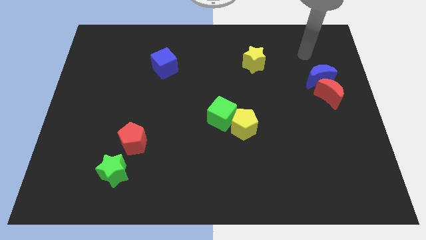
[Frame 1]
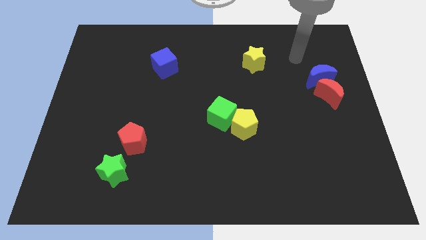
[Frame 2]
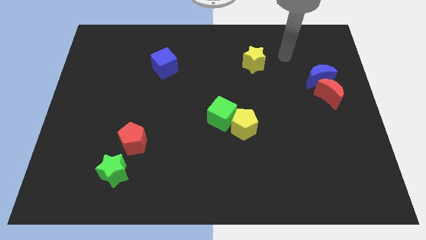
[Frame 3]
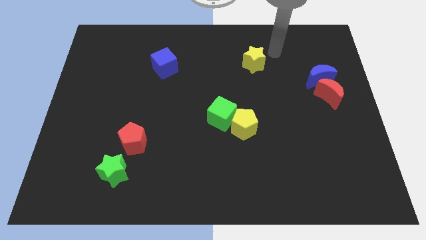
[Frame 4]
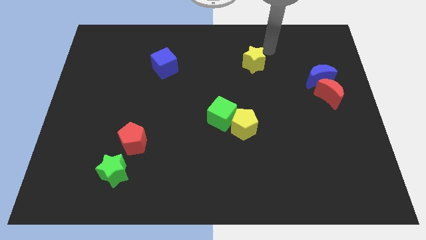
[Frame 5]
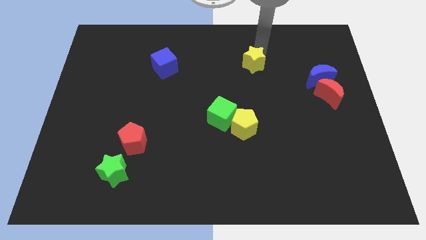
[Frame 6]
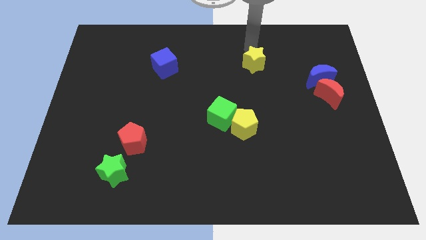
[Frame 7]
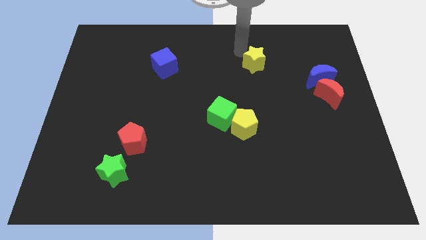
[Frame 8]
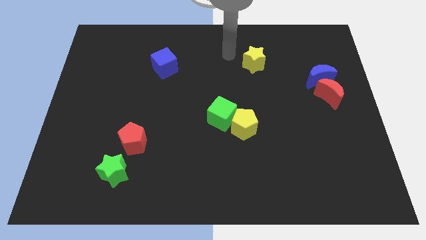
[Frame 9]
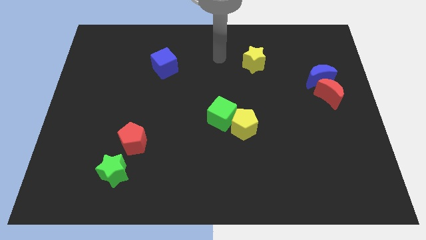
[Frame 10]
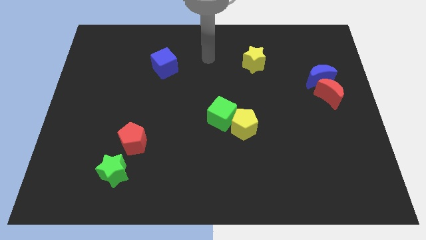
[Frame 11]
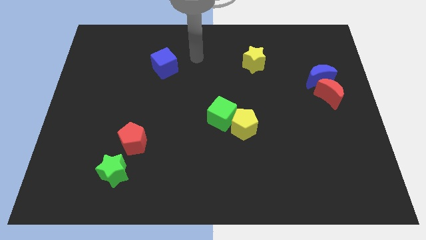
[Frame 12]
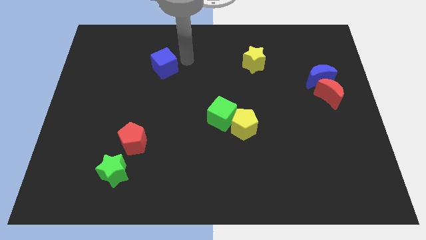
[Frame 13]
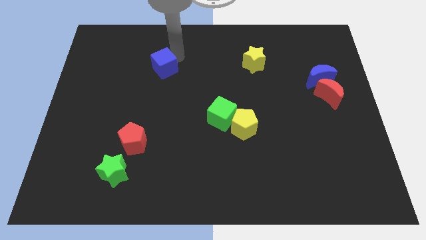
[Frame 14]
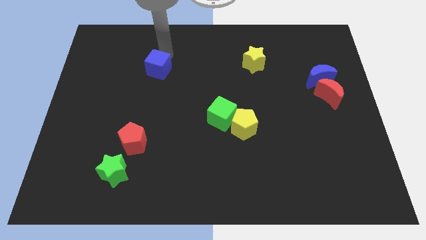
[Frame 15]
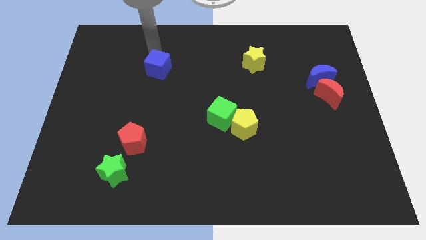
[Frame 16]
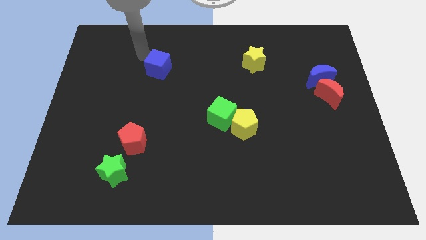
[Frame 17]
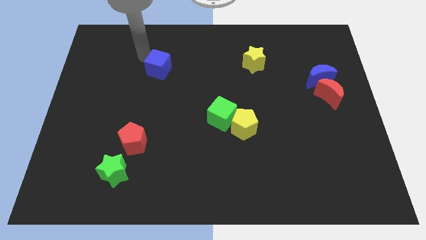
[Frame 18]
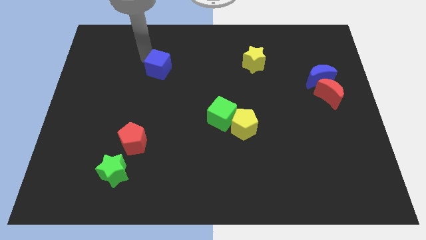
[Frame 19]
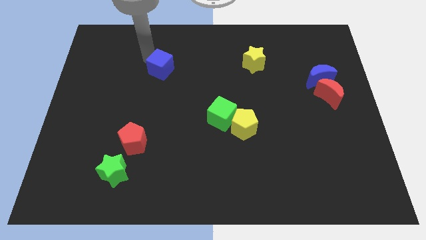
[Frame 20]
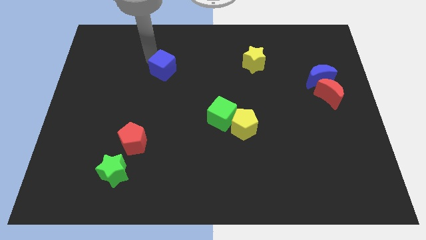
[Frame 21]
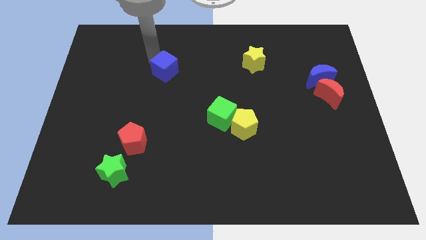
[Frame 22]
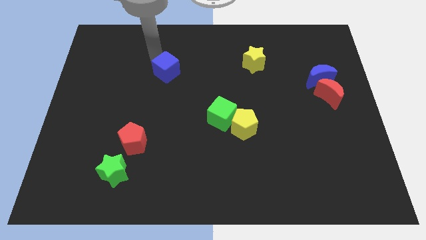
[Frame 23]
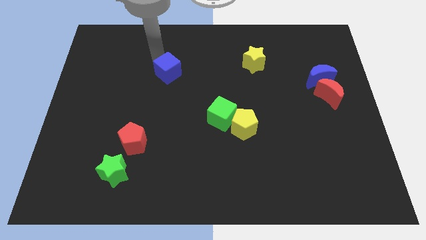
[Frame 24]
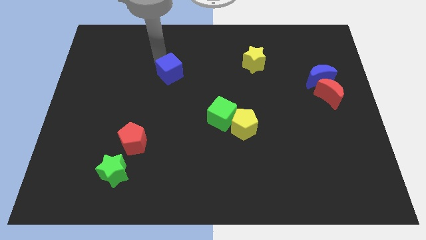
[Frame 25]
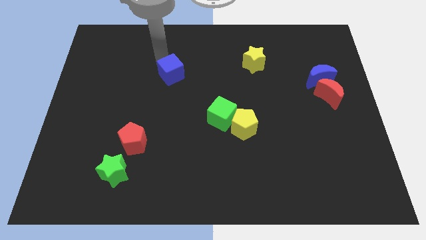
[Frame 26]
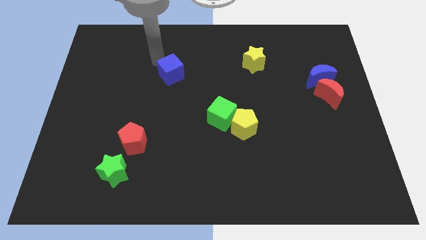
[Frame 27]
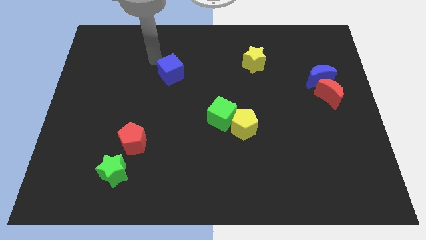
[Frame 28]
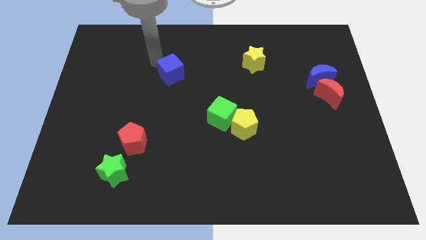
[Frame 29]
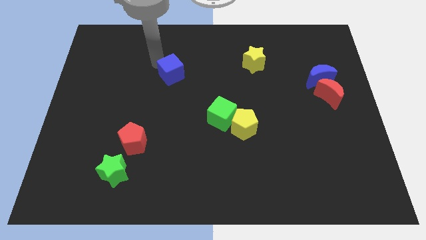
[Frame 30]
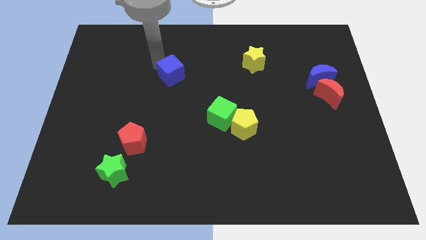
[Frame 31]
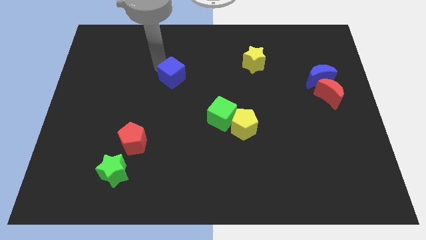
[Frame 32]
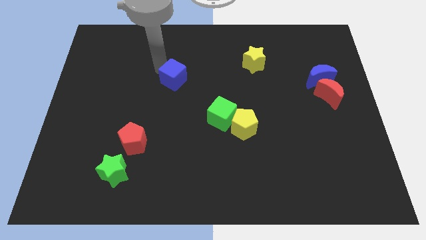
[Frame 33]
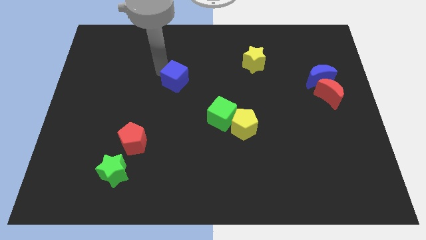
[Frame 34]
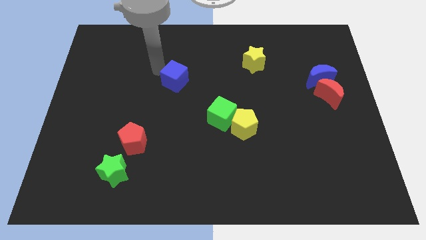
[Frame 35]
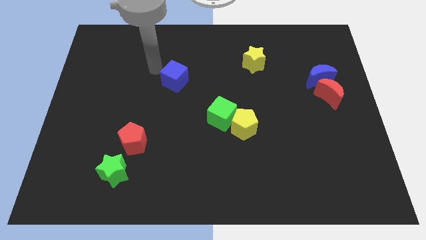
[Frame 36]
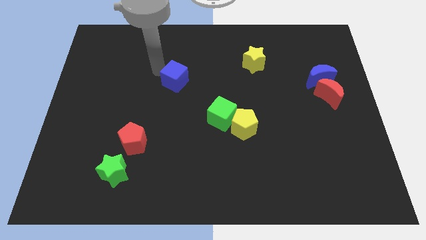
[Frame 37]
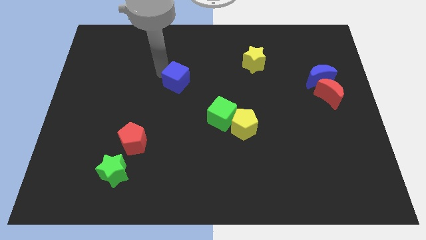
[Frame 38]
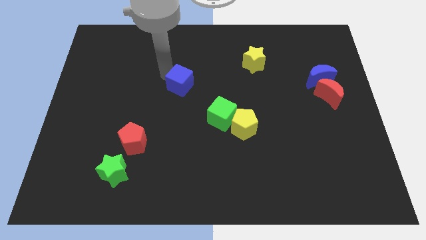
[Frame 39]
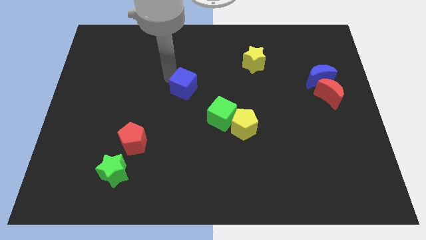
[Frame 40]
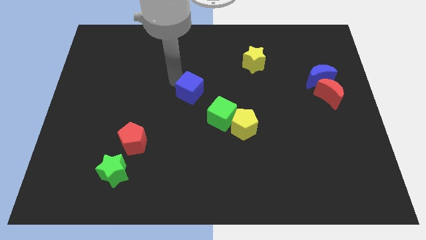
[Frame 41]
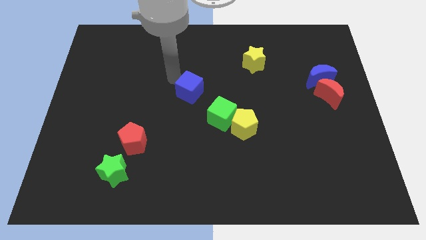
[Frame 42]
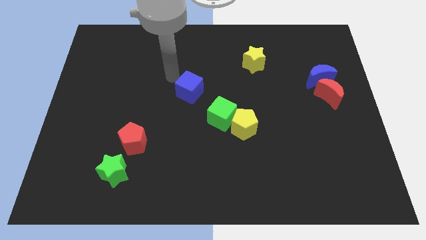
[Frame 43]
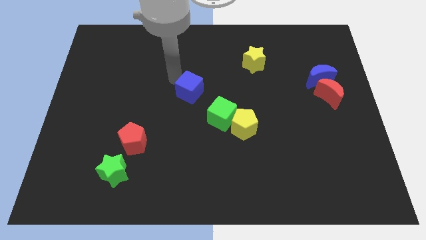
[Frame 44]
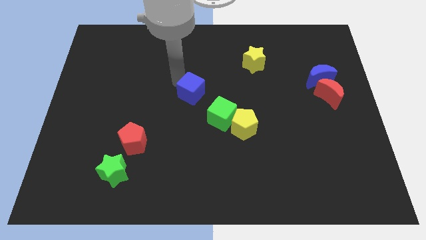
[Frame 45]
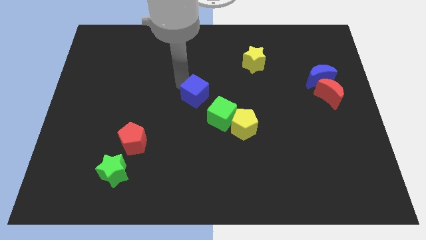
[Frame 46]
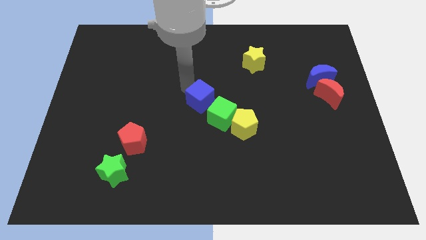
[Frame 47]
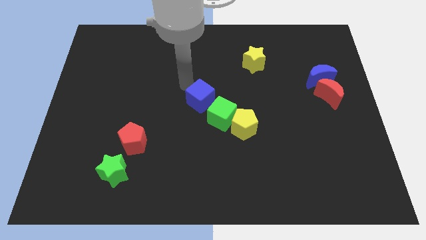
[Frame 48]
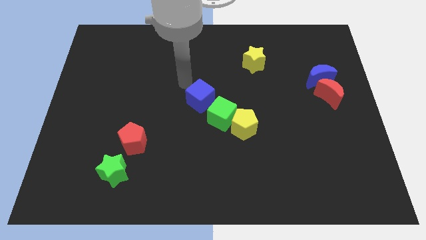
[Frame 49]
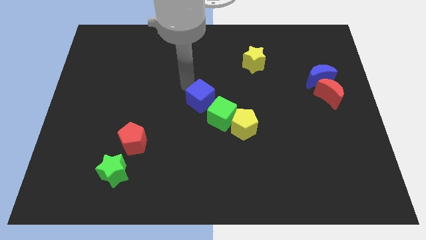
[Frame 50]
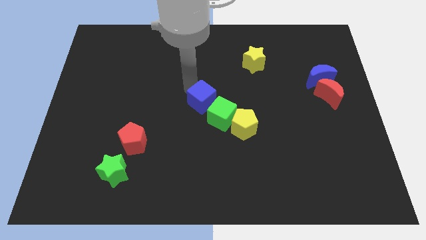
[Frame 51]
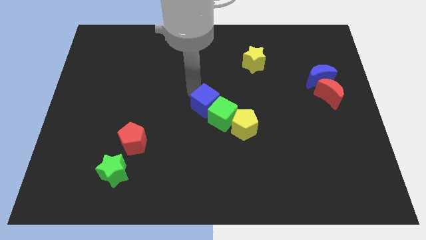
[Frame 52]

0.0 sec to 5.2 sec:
put the blue cube towards the green cube

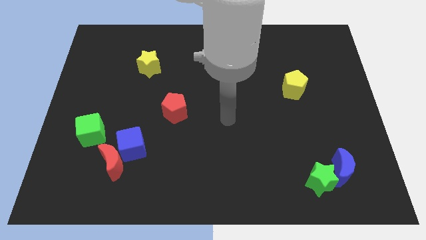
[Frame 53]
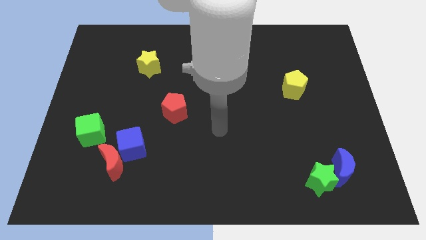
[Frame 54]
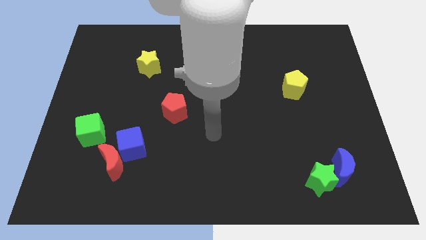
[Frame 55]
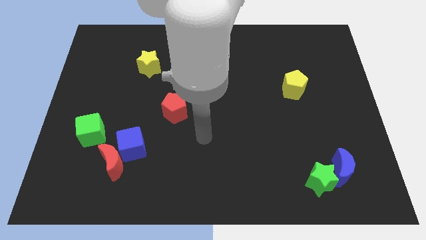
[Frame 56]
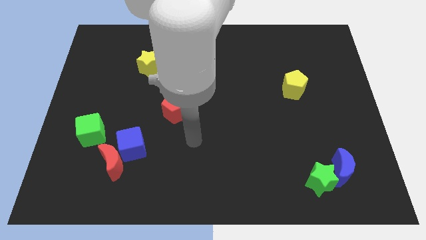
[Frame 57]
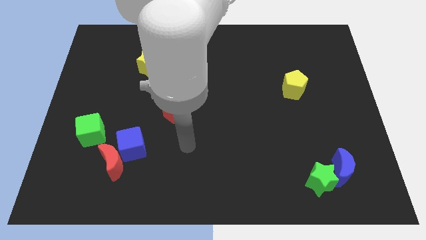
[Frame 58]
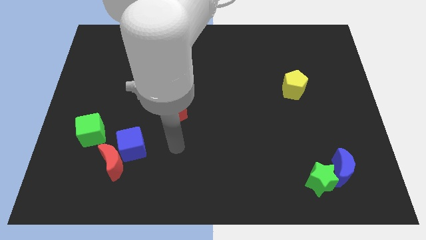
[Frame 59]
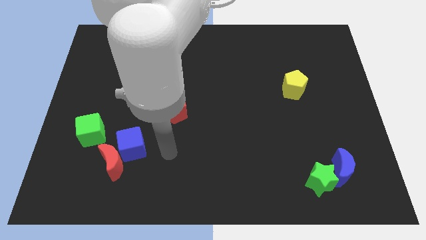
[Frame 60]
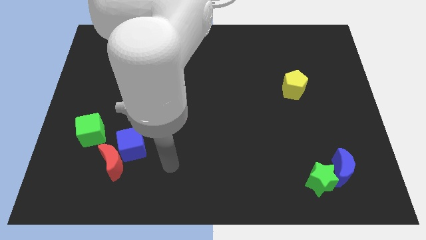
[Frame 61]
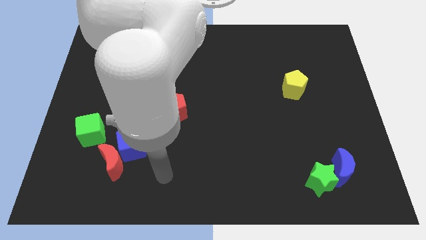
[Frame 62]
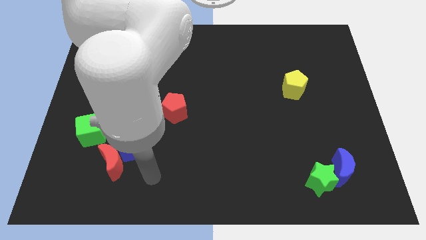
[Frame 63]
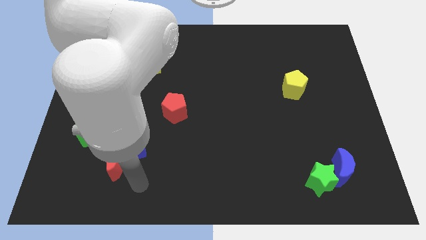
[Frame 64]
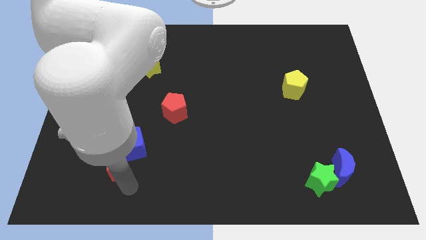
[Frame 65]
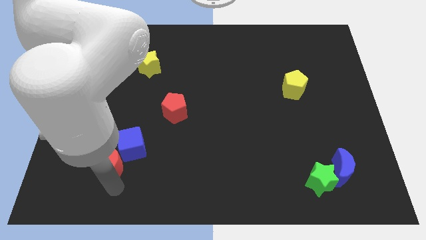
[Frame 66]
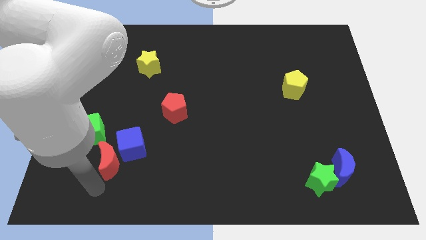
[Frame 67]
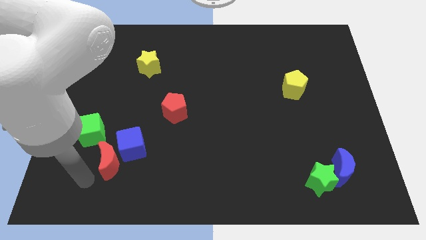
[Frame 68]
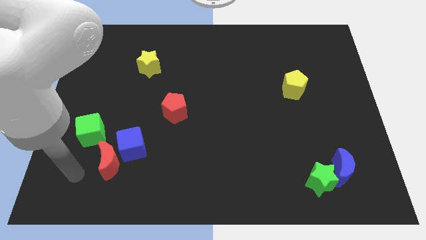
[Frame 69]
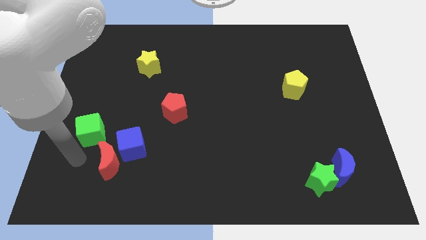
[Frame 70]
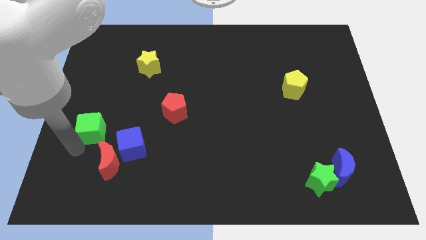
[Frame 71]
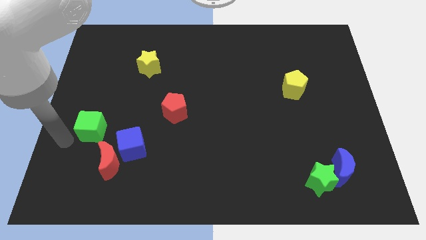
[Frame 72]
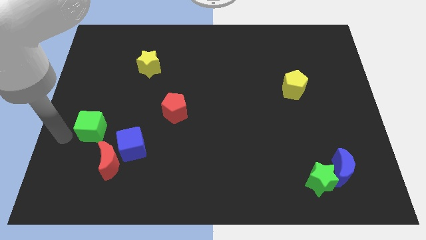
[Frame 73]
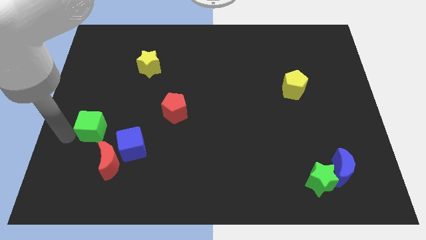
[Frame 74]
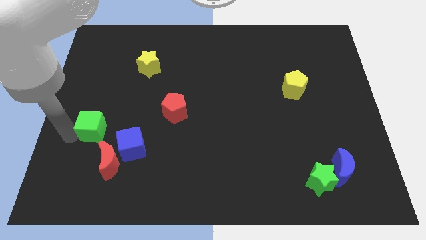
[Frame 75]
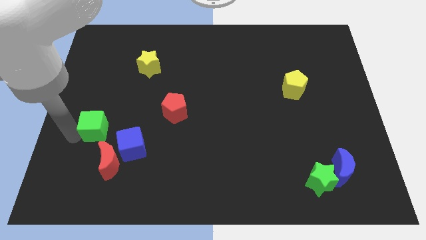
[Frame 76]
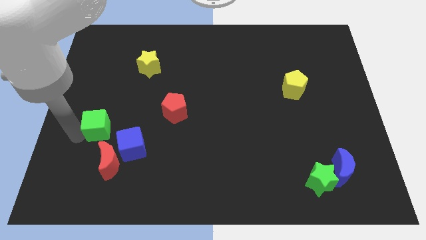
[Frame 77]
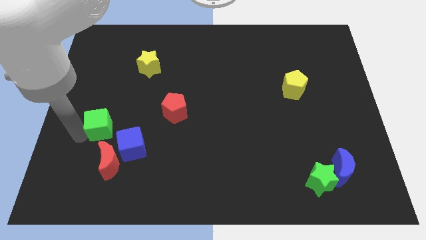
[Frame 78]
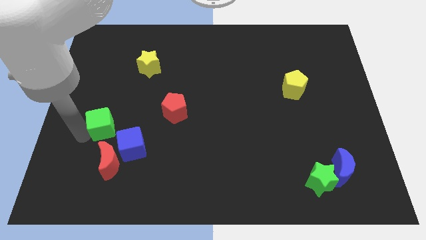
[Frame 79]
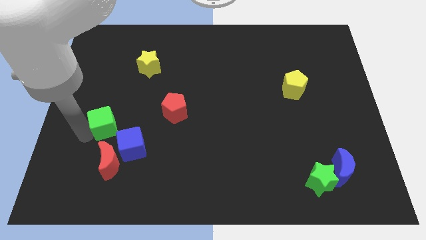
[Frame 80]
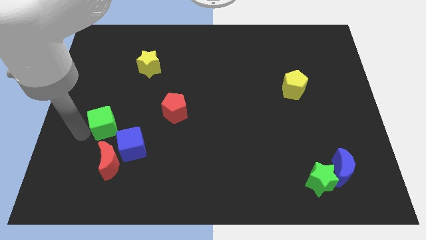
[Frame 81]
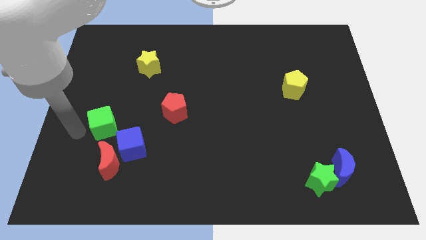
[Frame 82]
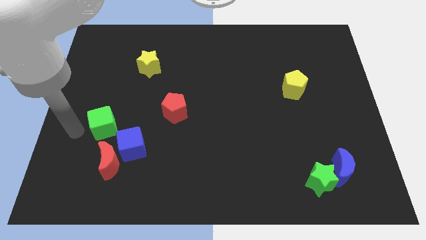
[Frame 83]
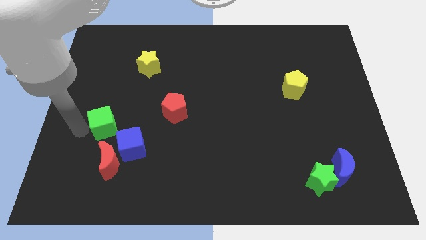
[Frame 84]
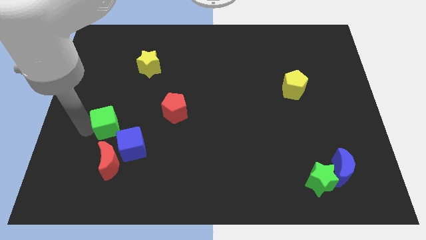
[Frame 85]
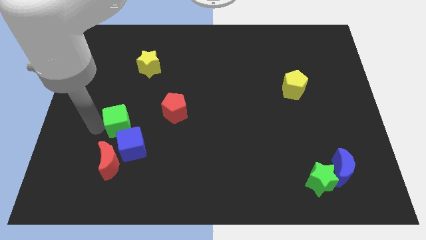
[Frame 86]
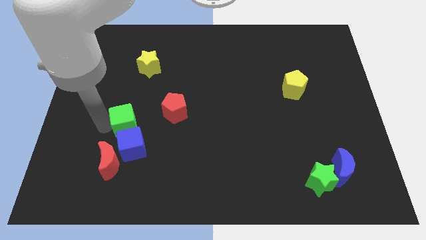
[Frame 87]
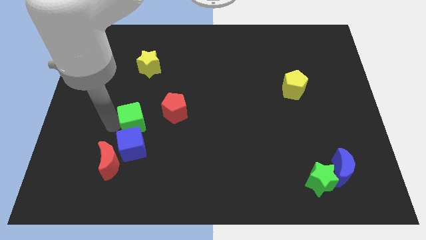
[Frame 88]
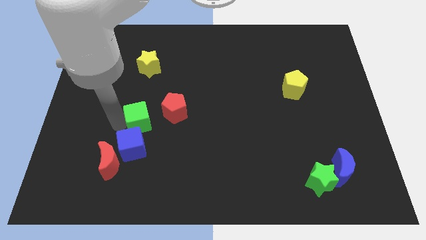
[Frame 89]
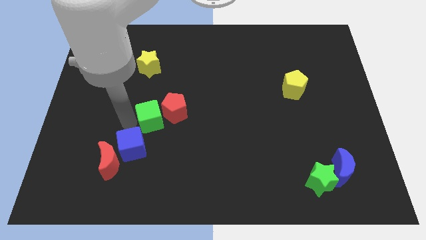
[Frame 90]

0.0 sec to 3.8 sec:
put the green cube towards the red pentagon
